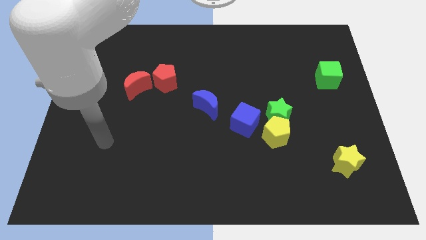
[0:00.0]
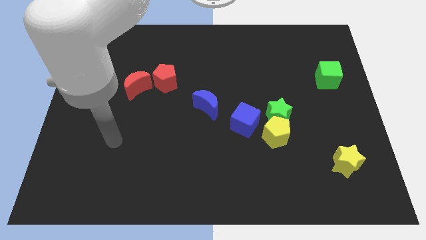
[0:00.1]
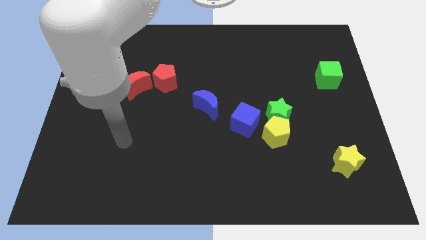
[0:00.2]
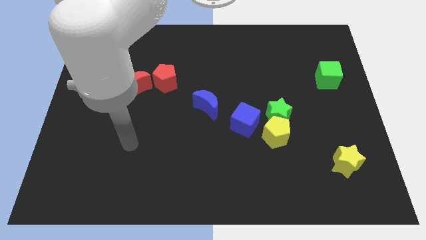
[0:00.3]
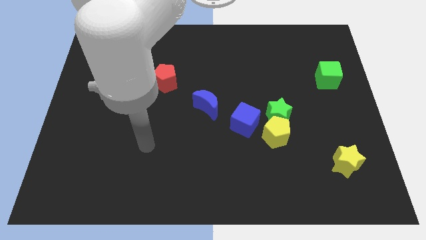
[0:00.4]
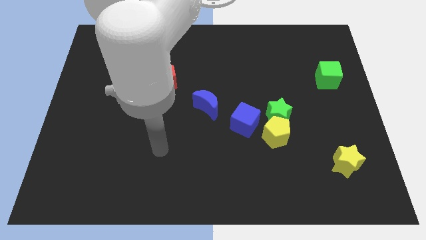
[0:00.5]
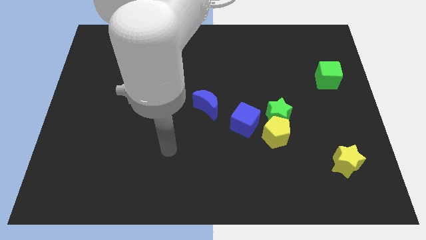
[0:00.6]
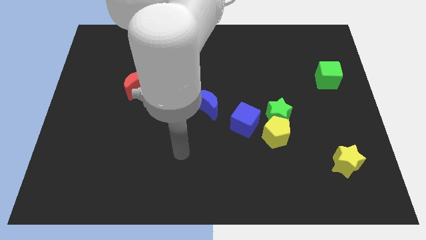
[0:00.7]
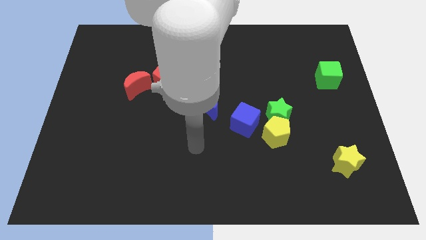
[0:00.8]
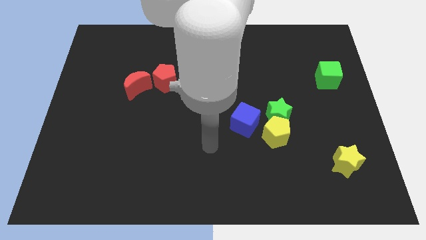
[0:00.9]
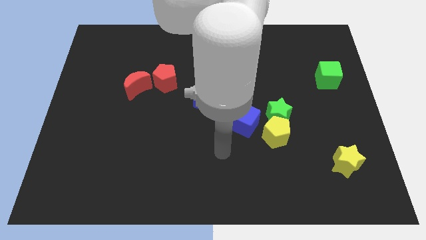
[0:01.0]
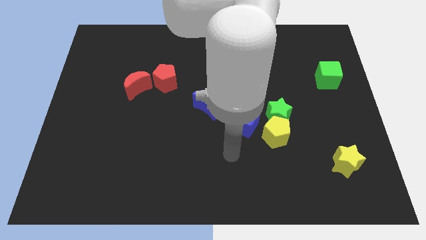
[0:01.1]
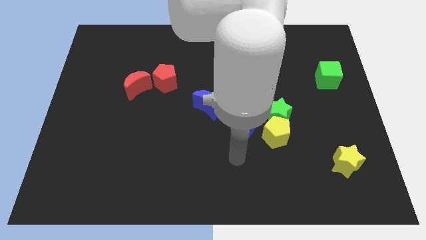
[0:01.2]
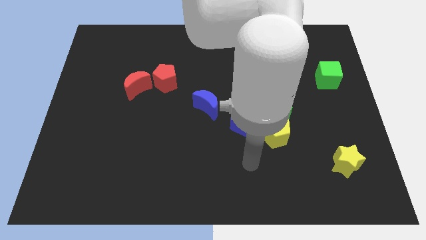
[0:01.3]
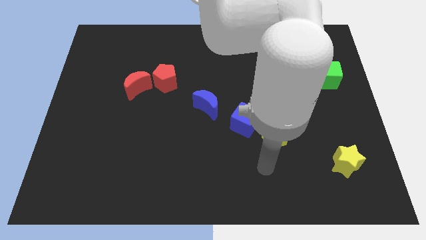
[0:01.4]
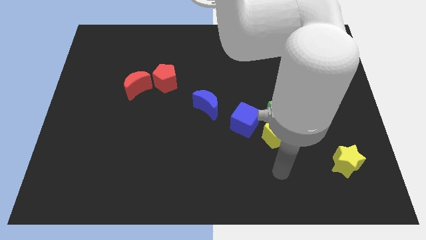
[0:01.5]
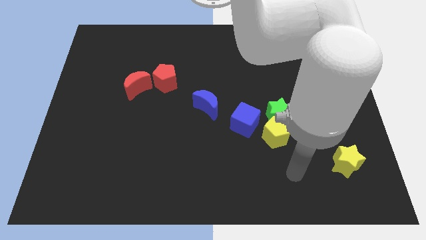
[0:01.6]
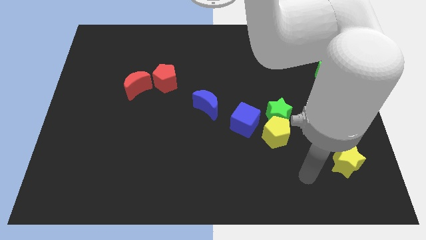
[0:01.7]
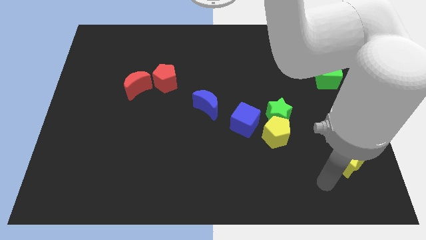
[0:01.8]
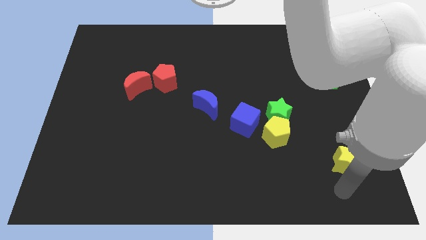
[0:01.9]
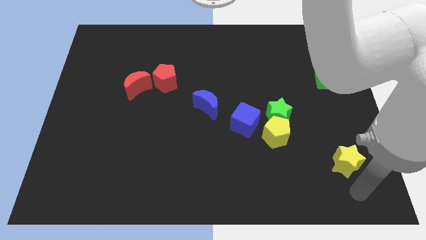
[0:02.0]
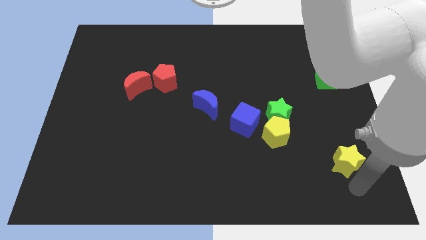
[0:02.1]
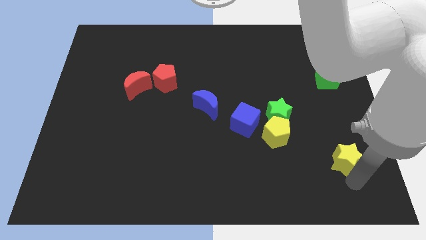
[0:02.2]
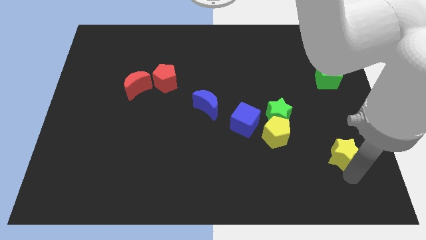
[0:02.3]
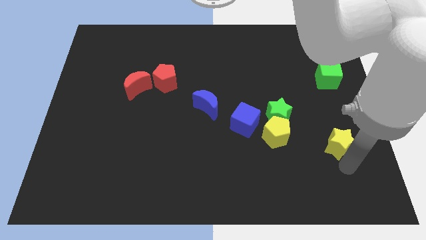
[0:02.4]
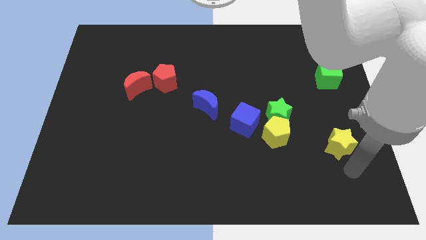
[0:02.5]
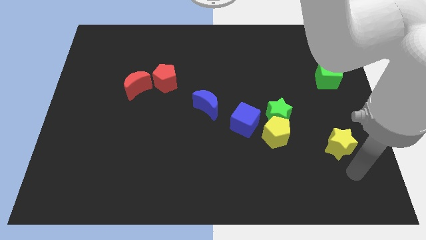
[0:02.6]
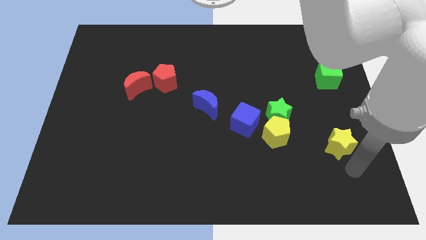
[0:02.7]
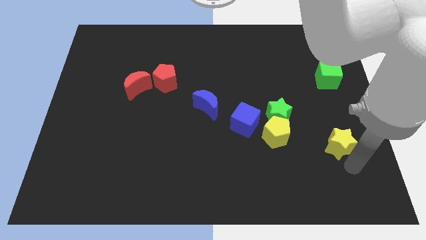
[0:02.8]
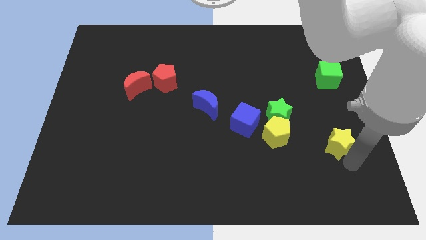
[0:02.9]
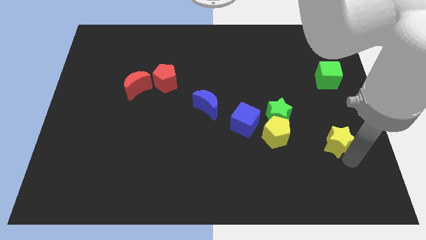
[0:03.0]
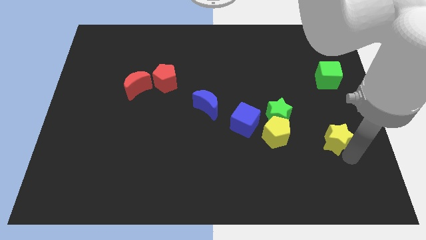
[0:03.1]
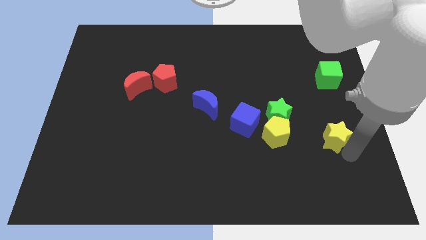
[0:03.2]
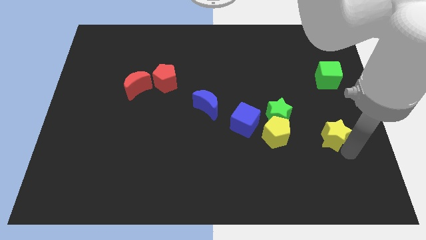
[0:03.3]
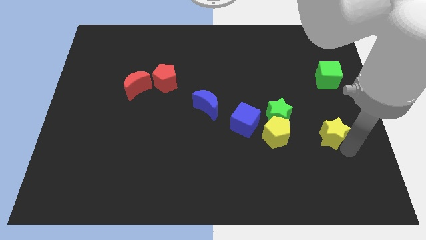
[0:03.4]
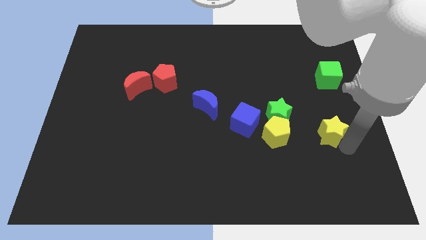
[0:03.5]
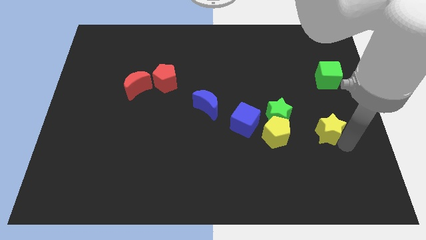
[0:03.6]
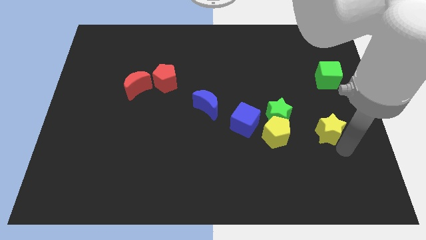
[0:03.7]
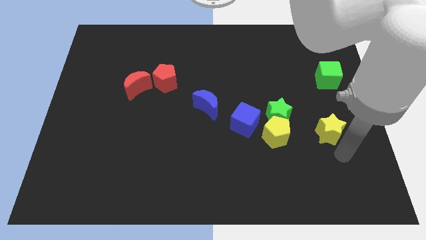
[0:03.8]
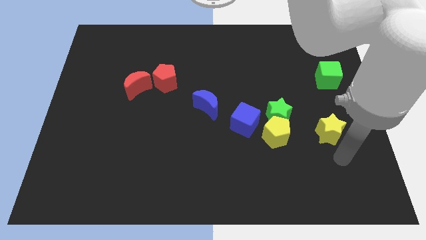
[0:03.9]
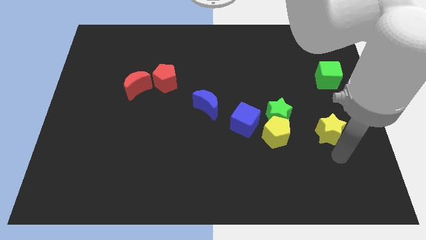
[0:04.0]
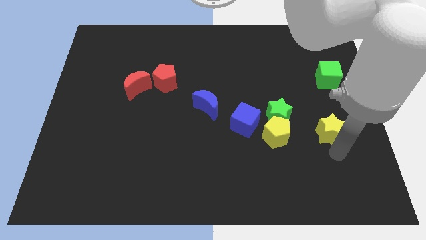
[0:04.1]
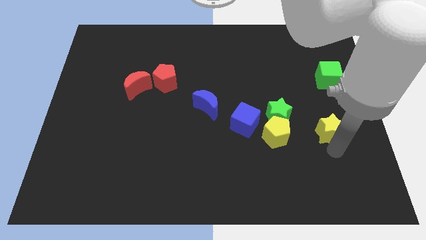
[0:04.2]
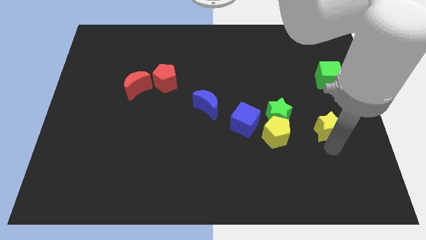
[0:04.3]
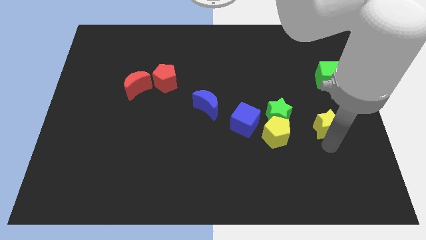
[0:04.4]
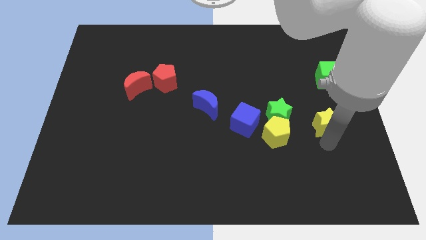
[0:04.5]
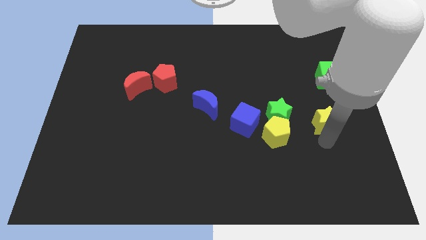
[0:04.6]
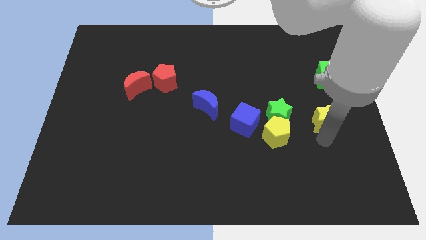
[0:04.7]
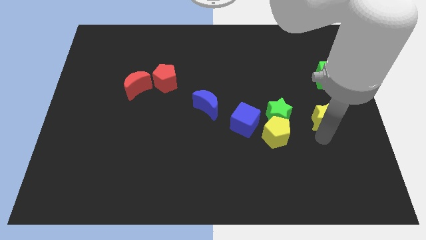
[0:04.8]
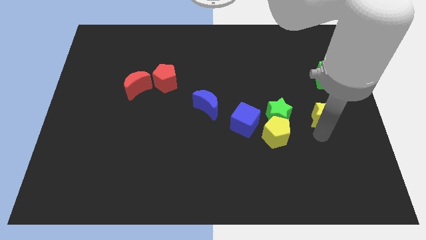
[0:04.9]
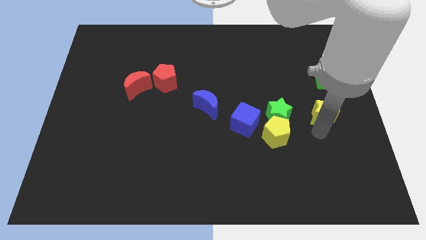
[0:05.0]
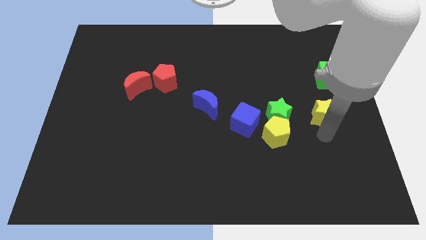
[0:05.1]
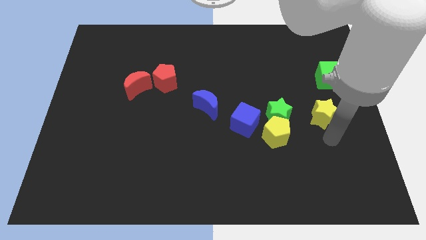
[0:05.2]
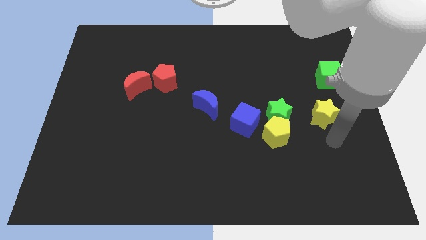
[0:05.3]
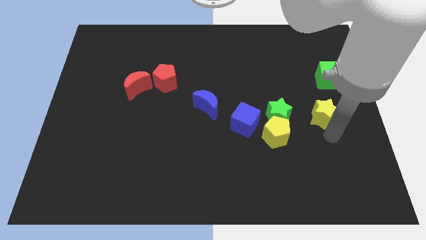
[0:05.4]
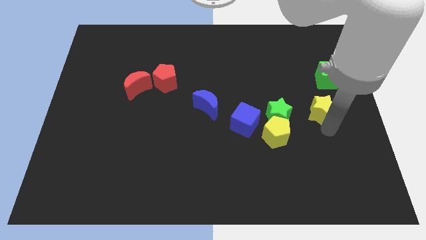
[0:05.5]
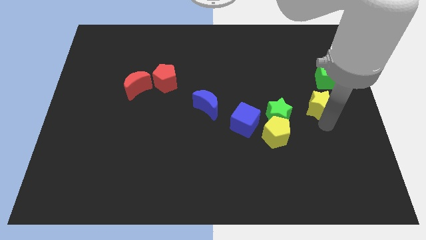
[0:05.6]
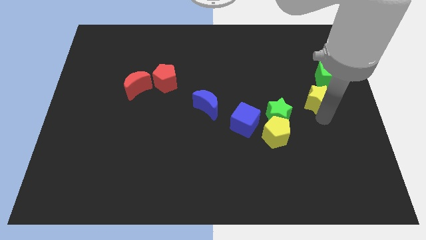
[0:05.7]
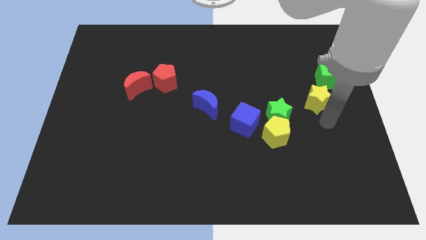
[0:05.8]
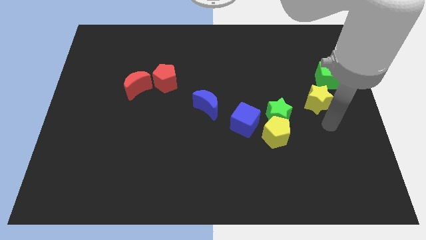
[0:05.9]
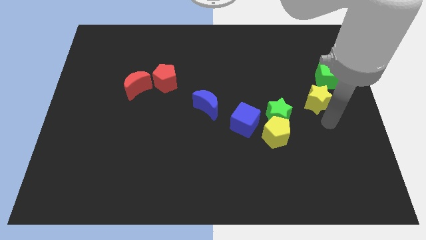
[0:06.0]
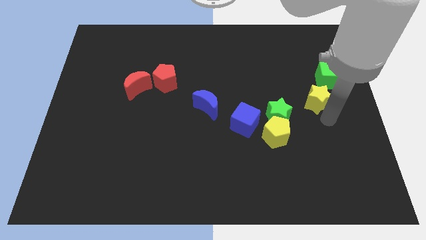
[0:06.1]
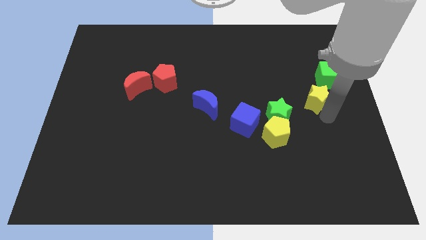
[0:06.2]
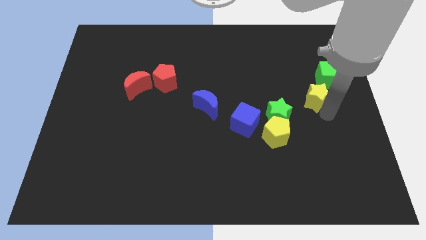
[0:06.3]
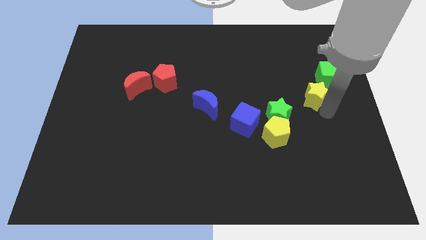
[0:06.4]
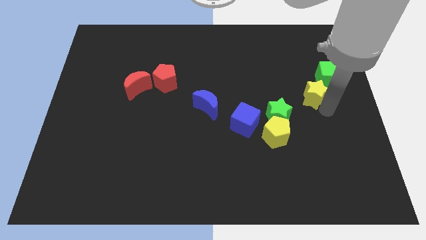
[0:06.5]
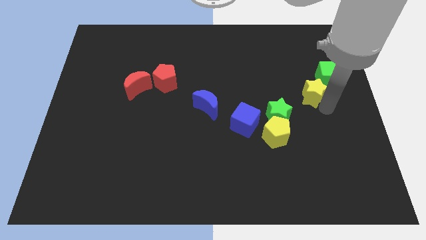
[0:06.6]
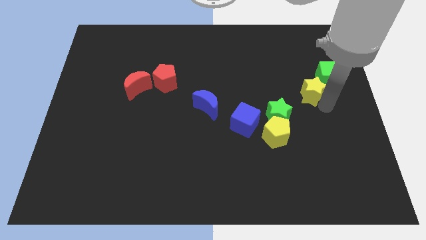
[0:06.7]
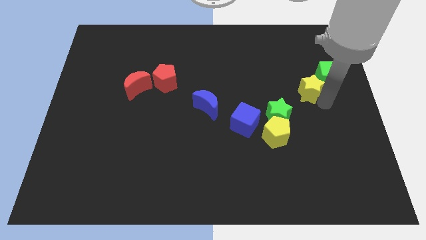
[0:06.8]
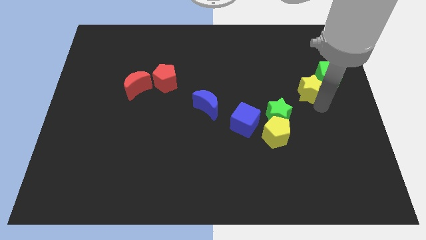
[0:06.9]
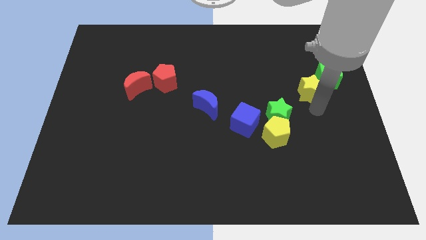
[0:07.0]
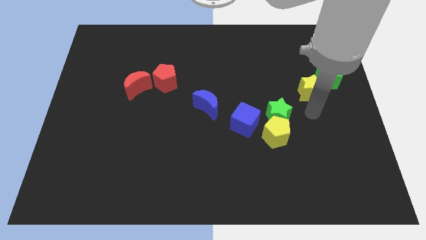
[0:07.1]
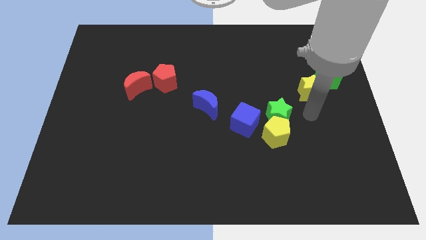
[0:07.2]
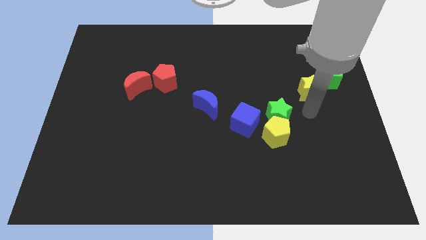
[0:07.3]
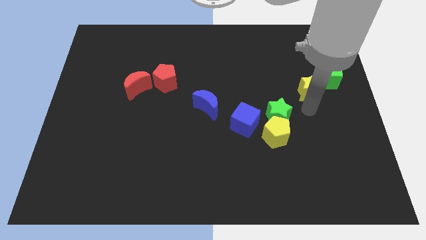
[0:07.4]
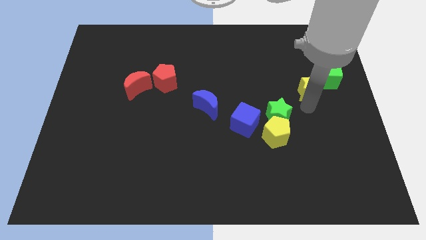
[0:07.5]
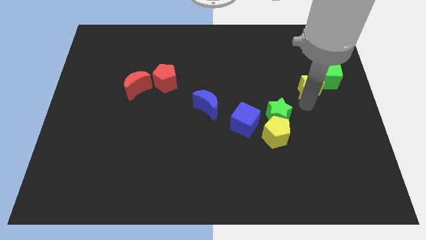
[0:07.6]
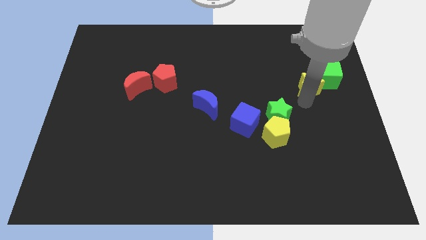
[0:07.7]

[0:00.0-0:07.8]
push the yellow star up
